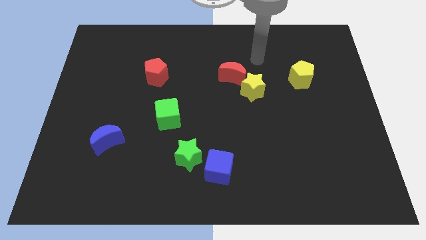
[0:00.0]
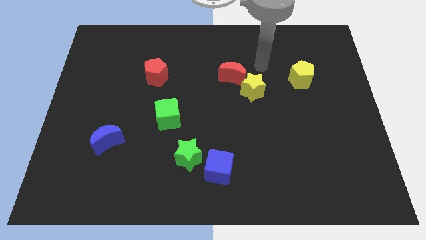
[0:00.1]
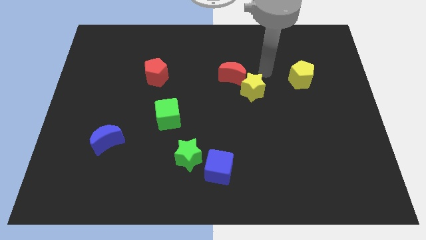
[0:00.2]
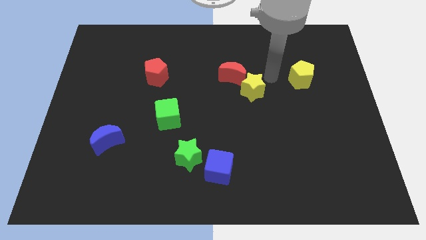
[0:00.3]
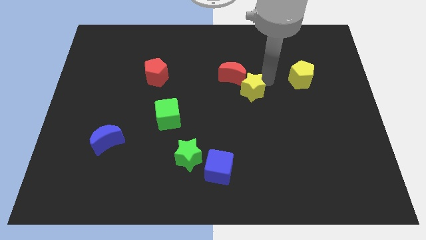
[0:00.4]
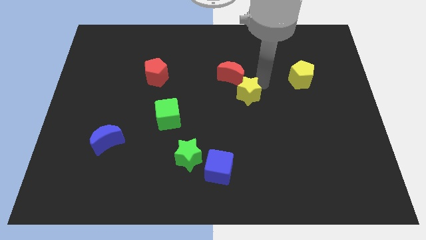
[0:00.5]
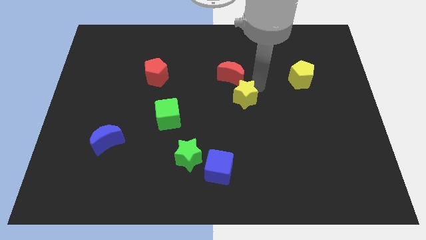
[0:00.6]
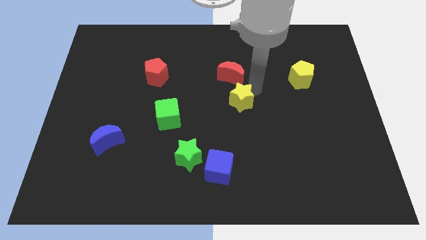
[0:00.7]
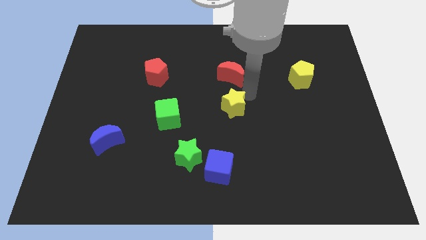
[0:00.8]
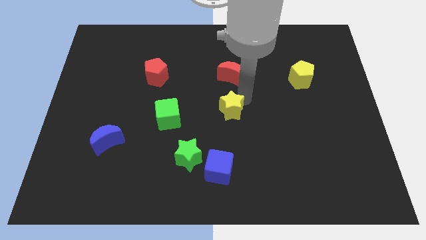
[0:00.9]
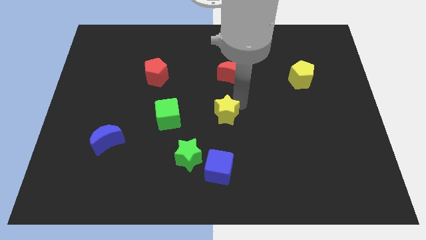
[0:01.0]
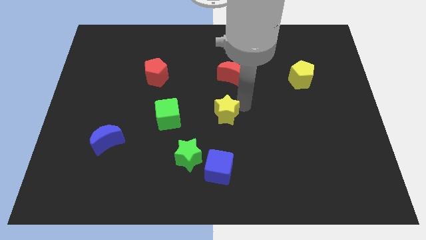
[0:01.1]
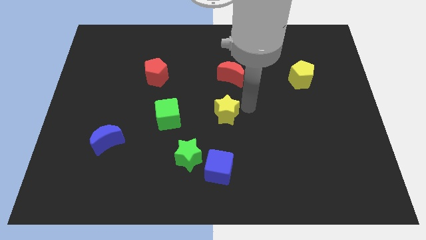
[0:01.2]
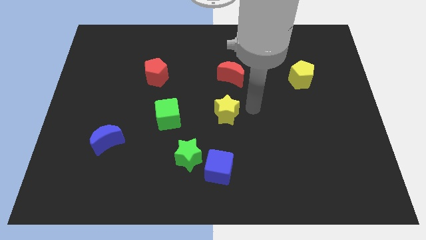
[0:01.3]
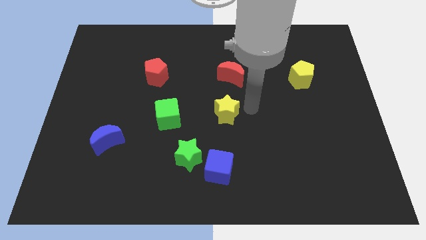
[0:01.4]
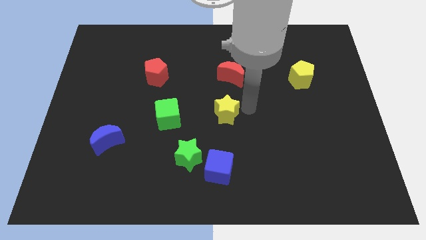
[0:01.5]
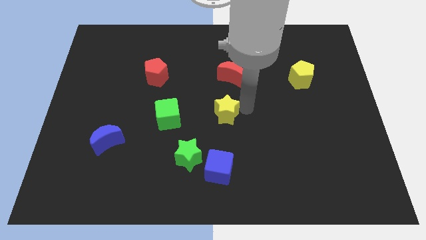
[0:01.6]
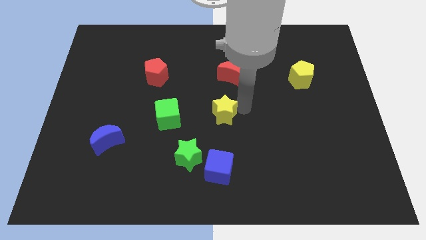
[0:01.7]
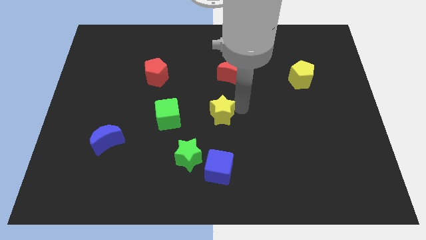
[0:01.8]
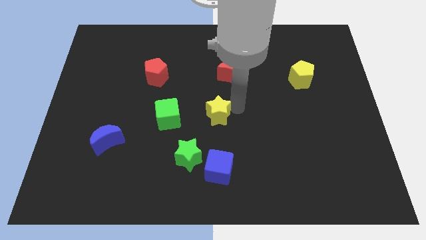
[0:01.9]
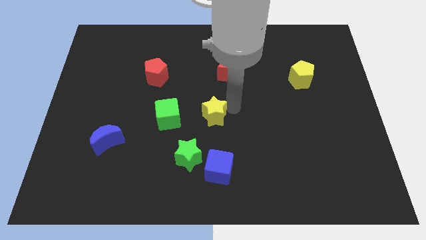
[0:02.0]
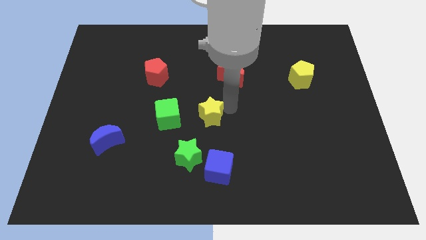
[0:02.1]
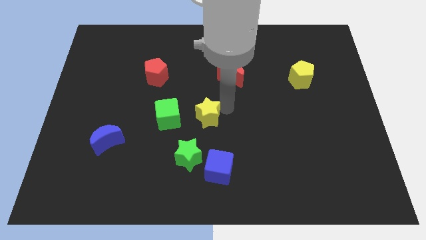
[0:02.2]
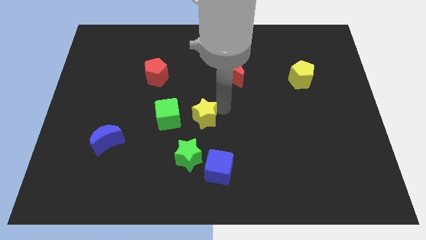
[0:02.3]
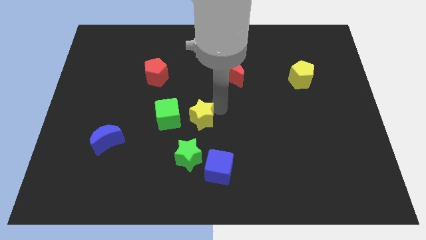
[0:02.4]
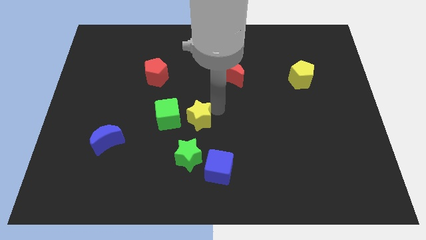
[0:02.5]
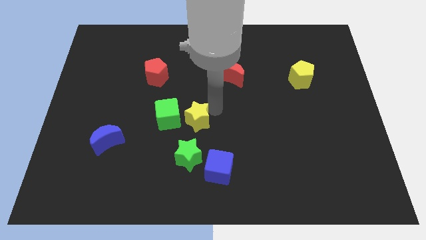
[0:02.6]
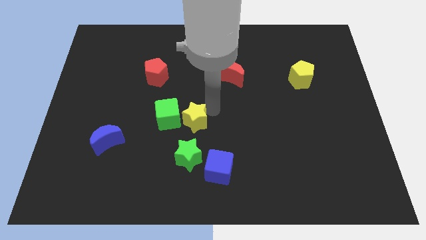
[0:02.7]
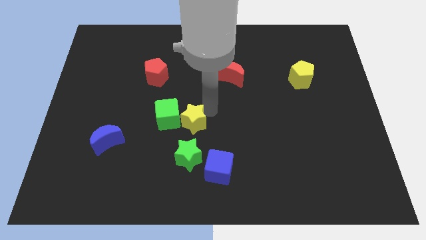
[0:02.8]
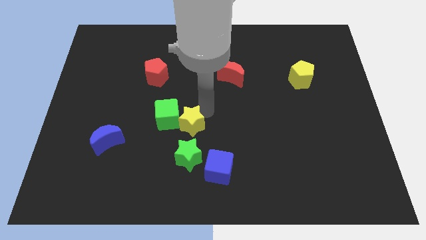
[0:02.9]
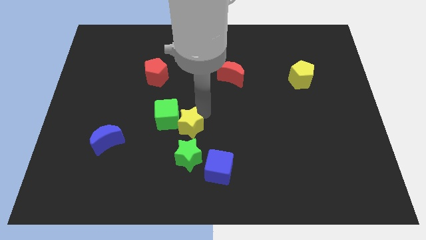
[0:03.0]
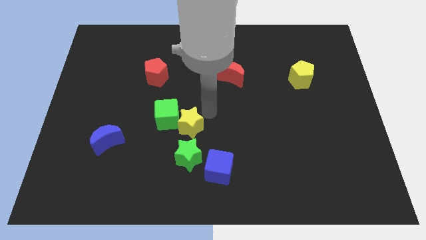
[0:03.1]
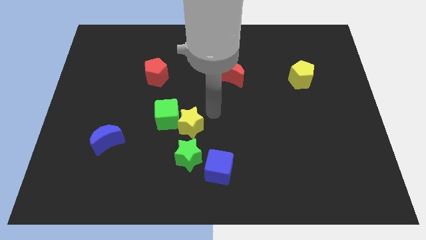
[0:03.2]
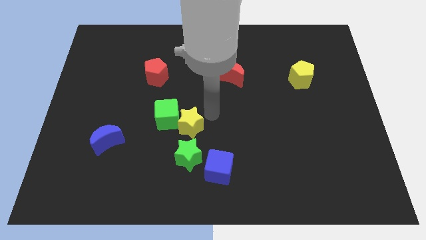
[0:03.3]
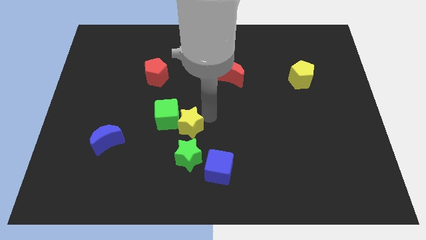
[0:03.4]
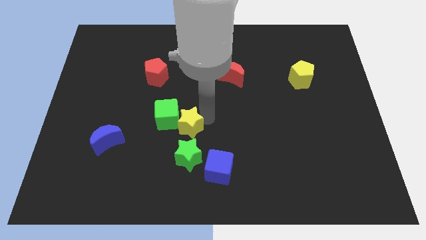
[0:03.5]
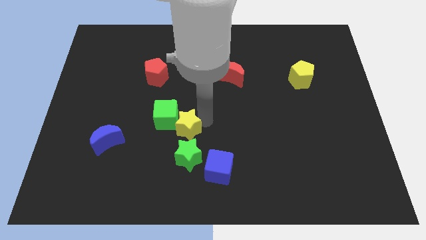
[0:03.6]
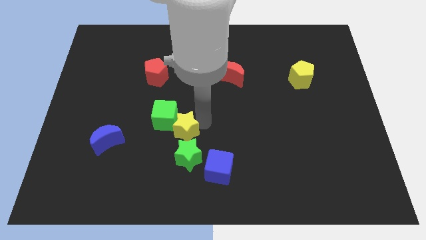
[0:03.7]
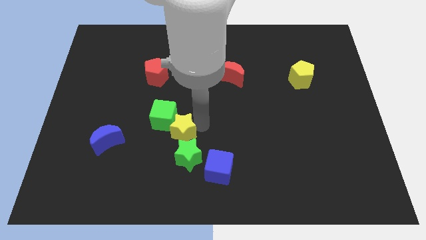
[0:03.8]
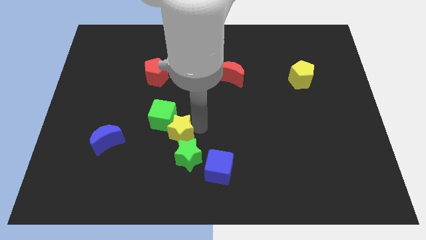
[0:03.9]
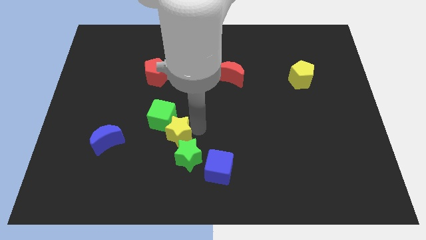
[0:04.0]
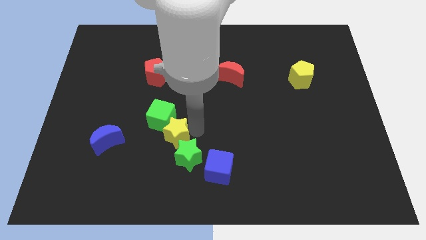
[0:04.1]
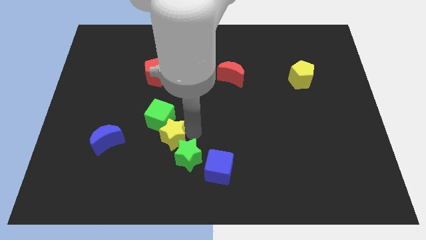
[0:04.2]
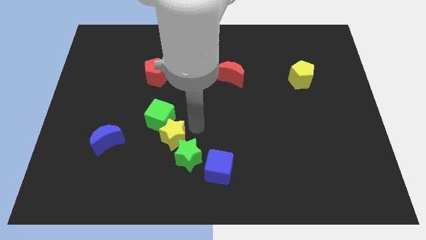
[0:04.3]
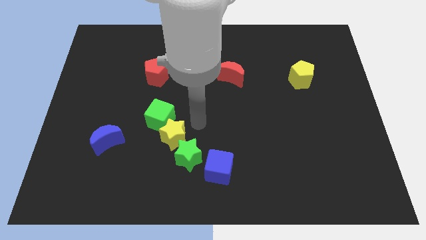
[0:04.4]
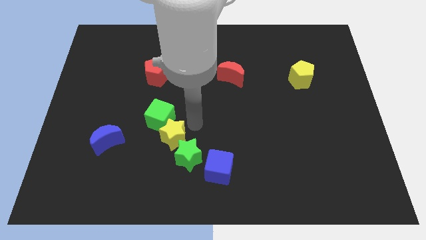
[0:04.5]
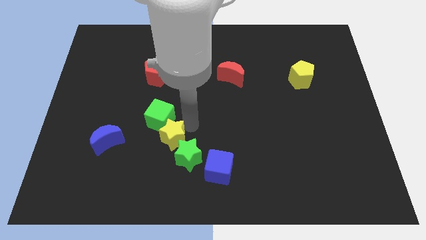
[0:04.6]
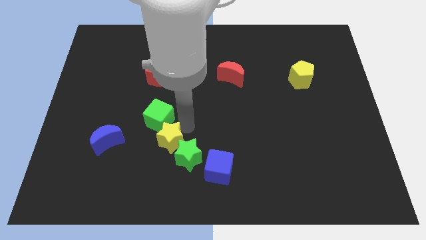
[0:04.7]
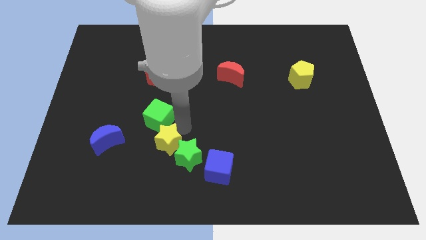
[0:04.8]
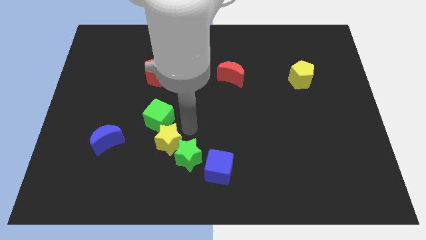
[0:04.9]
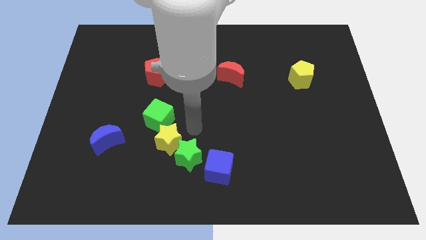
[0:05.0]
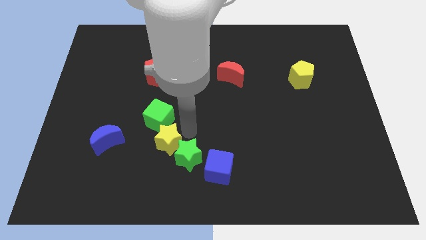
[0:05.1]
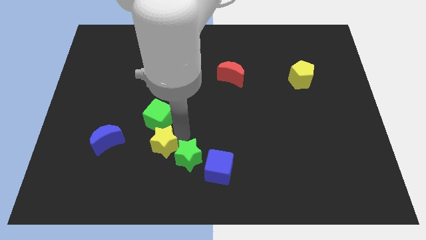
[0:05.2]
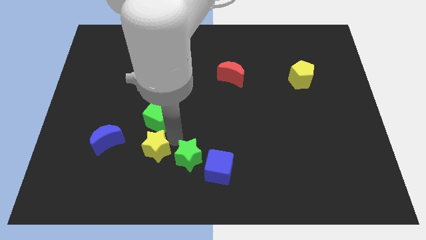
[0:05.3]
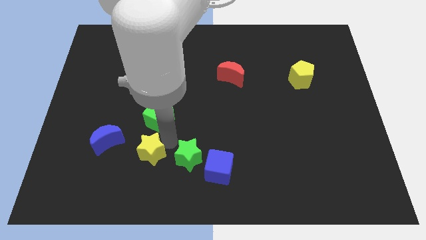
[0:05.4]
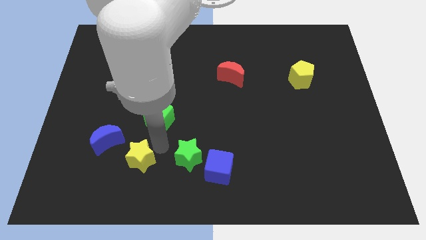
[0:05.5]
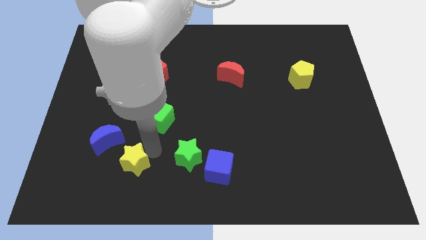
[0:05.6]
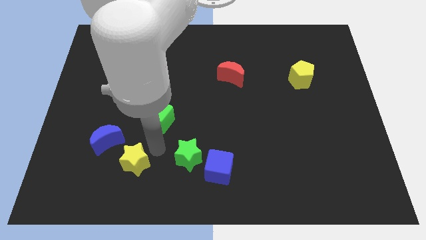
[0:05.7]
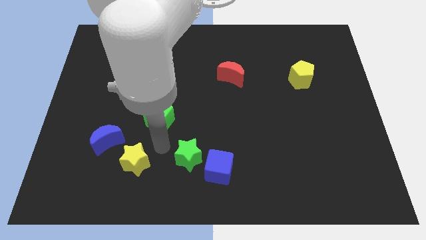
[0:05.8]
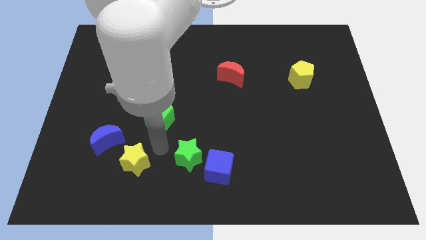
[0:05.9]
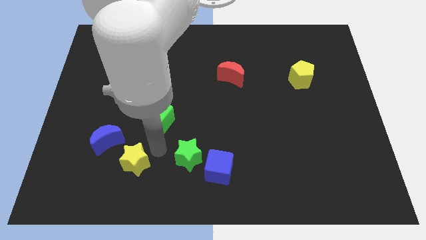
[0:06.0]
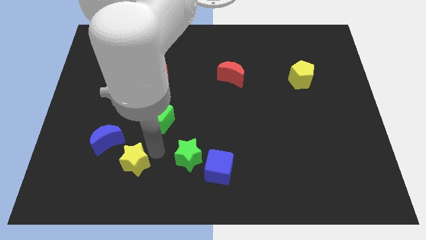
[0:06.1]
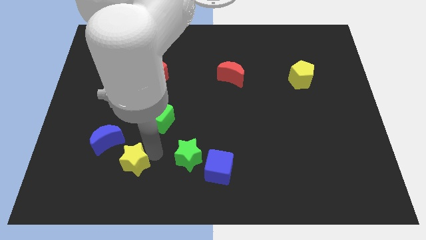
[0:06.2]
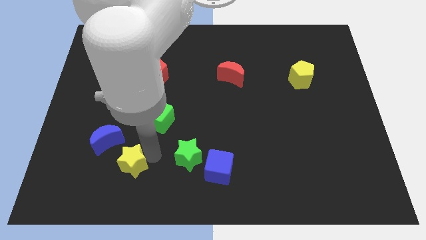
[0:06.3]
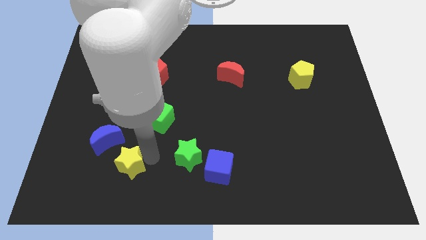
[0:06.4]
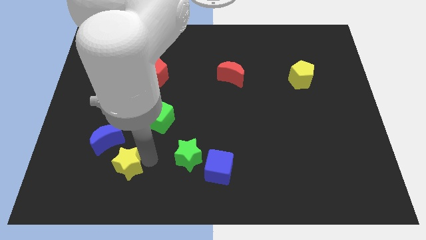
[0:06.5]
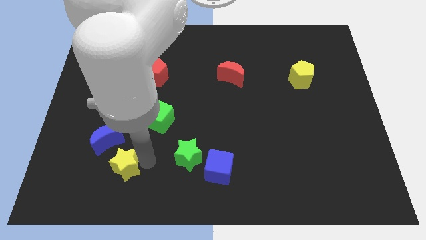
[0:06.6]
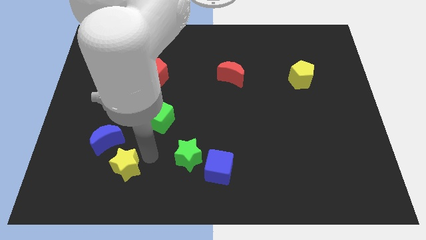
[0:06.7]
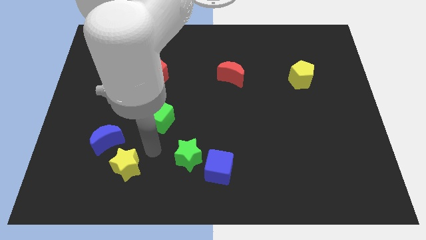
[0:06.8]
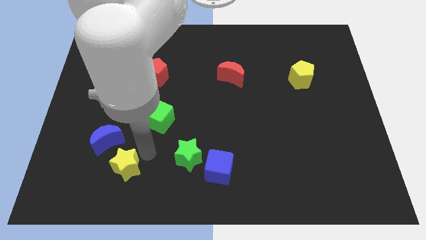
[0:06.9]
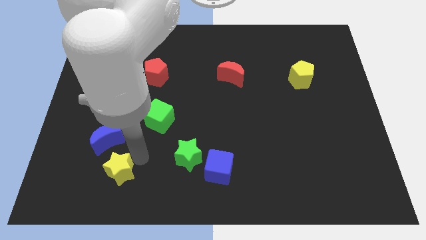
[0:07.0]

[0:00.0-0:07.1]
slide the yellow star below the blue moon

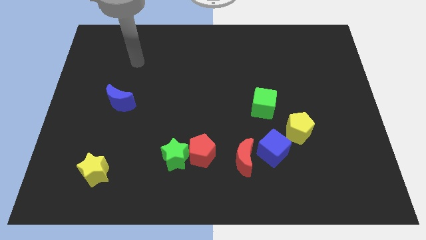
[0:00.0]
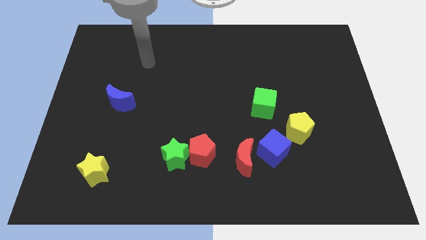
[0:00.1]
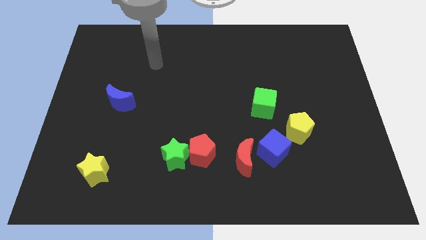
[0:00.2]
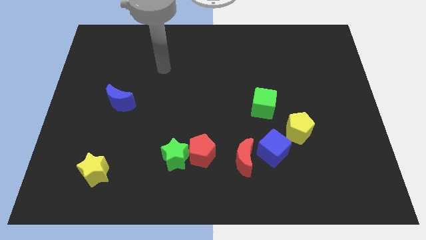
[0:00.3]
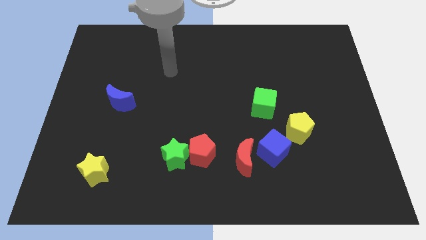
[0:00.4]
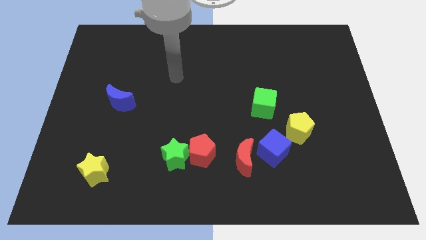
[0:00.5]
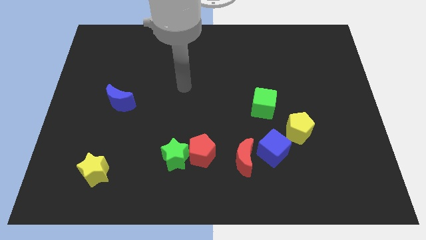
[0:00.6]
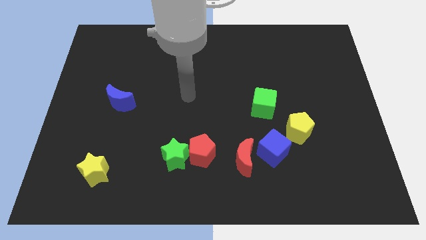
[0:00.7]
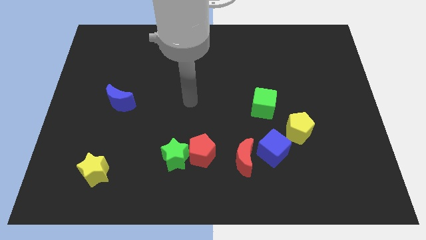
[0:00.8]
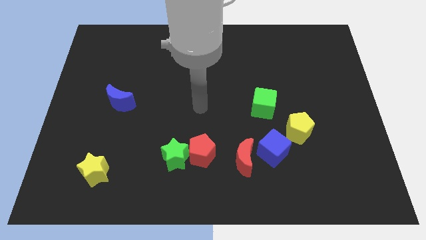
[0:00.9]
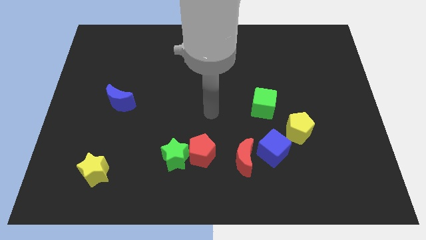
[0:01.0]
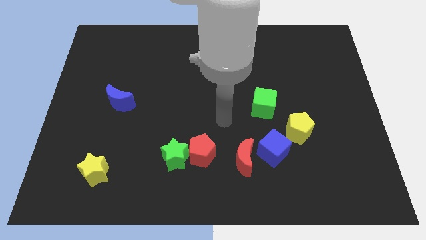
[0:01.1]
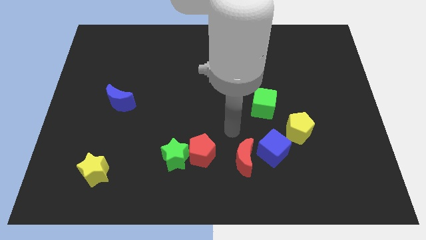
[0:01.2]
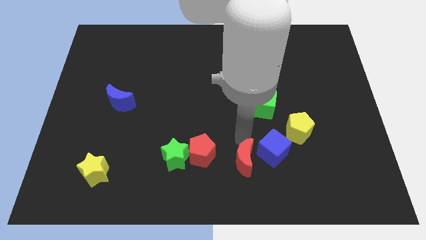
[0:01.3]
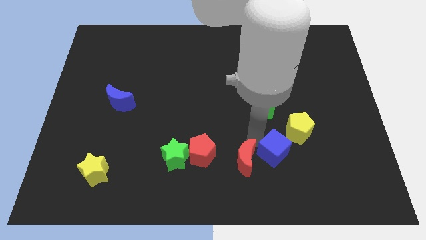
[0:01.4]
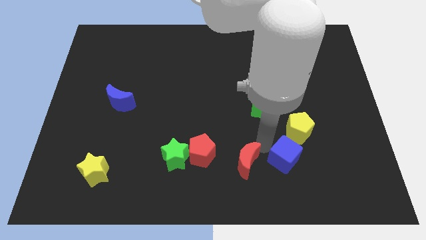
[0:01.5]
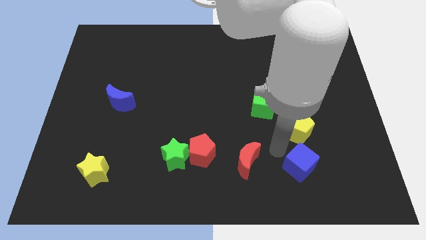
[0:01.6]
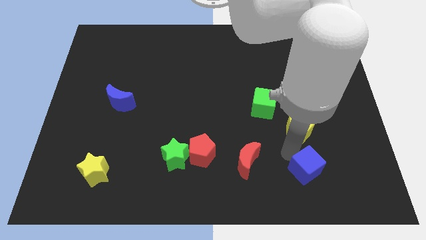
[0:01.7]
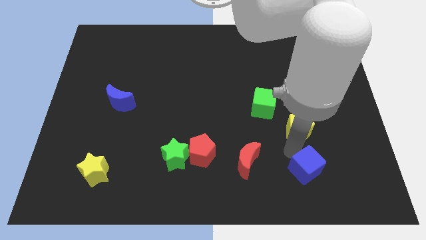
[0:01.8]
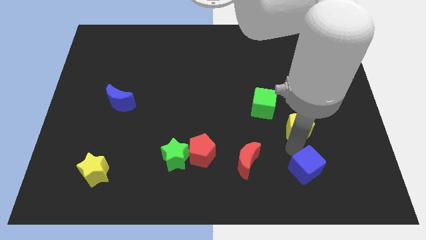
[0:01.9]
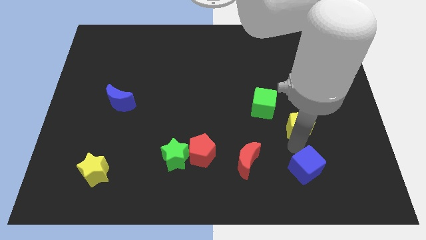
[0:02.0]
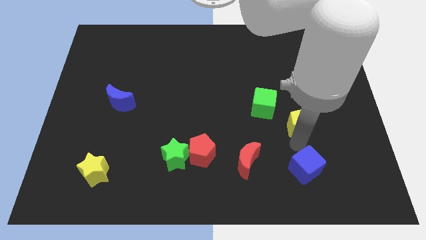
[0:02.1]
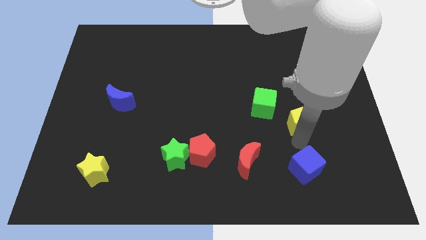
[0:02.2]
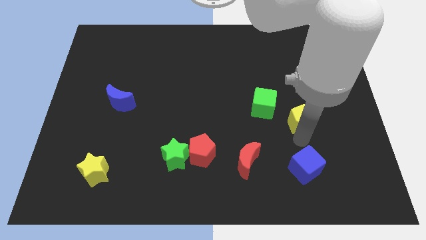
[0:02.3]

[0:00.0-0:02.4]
slide the yellow pentagon to the right side of the green cube
